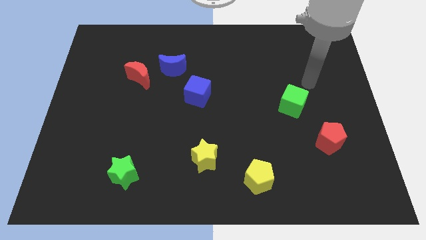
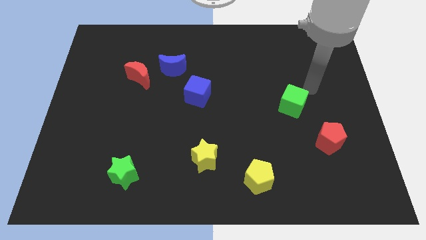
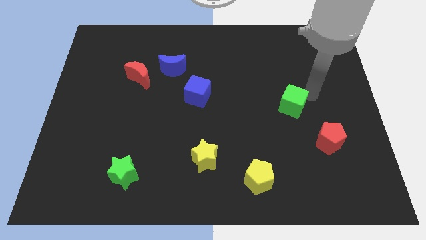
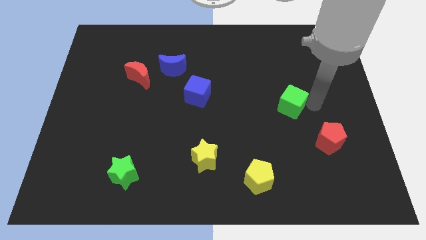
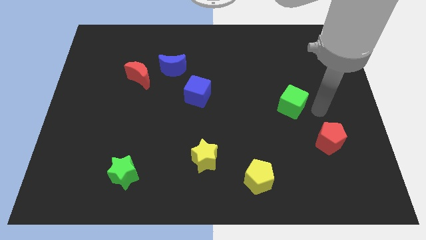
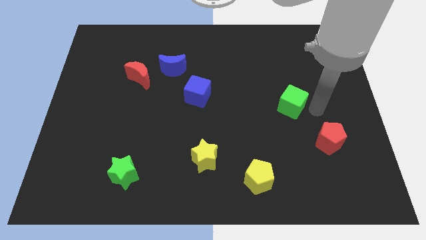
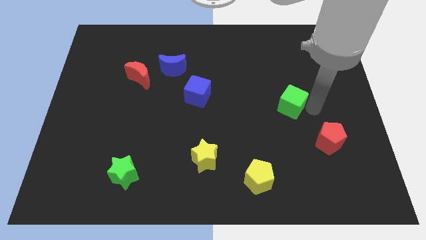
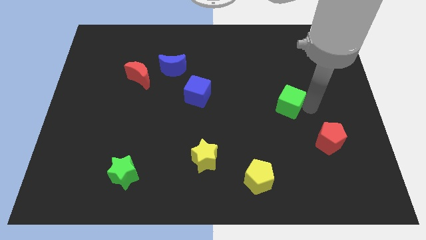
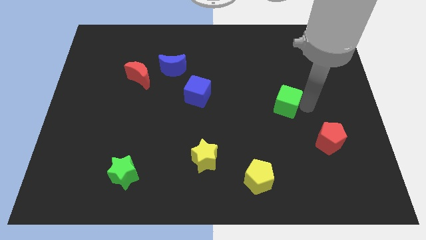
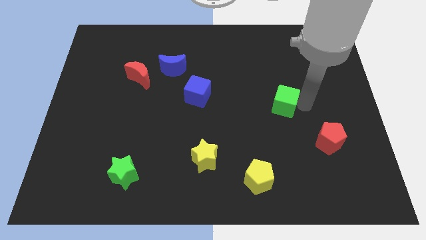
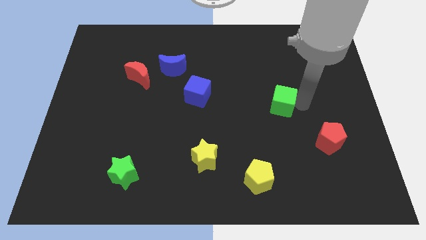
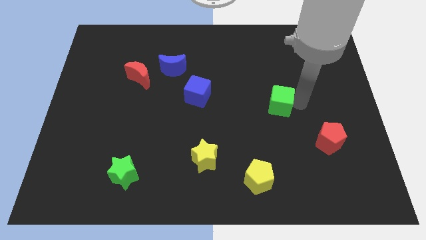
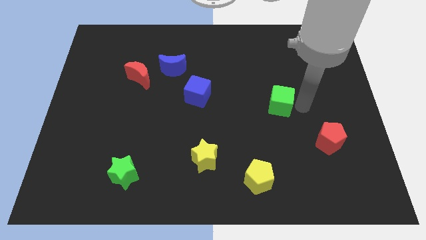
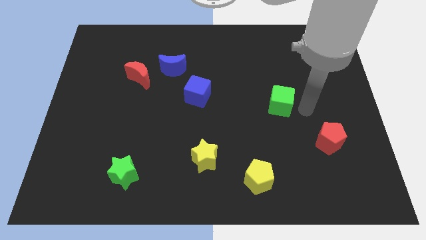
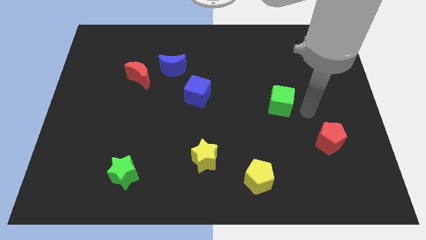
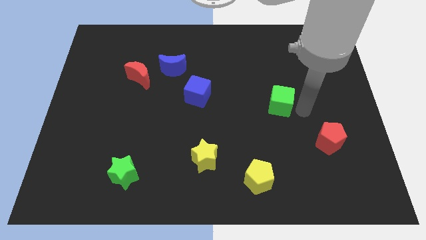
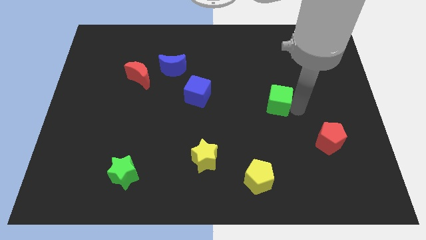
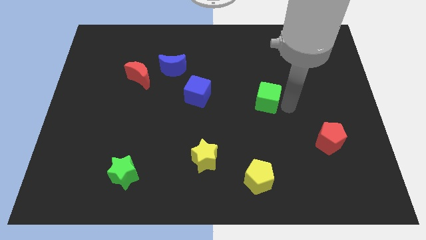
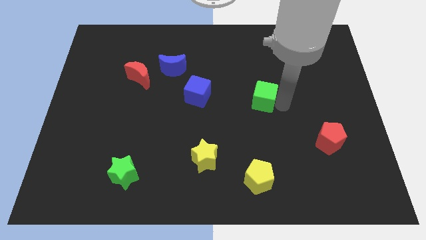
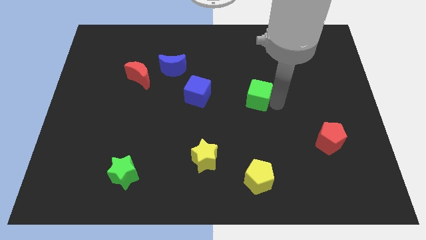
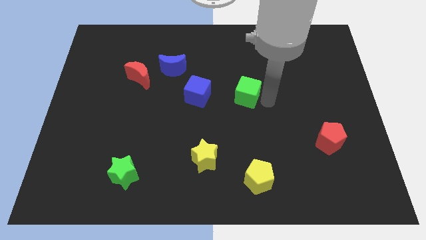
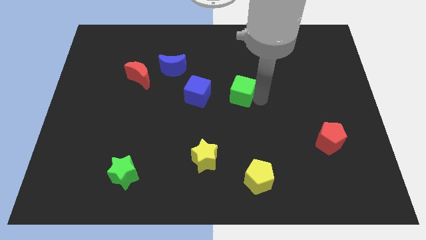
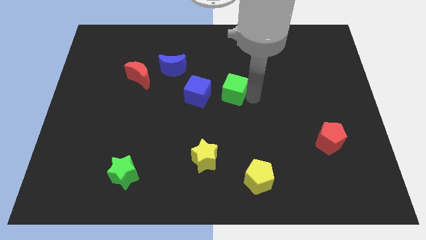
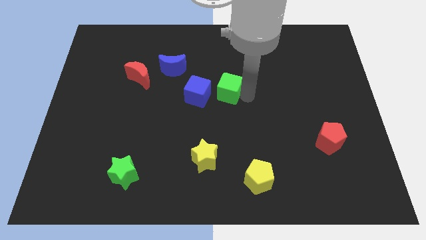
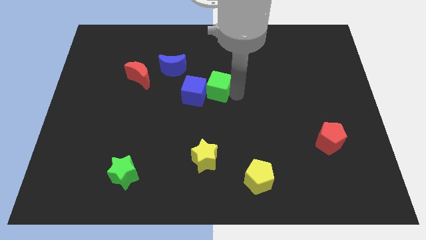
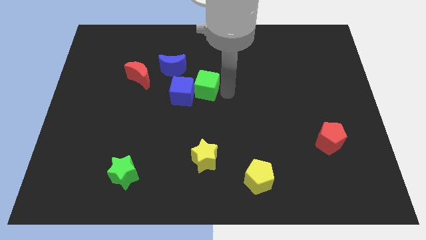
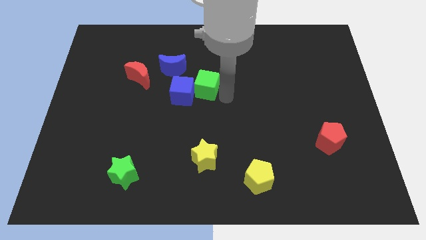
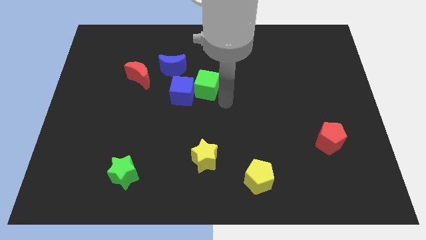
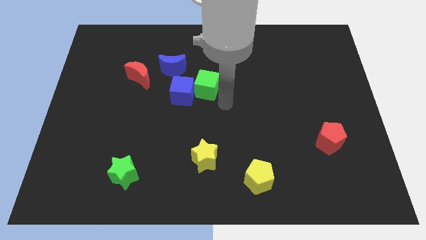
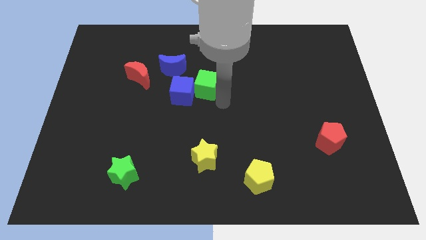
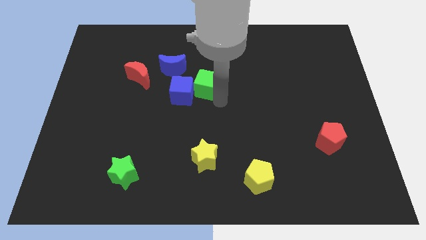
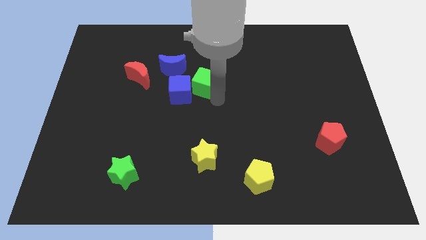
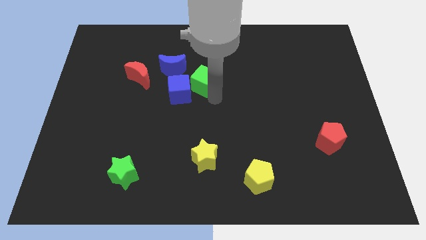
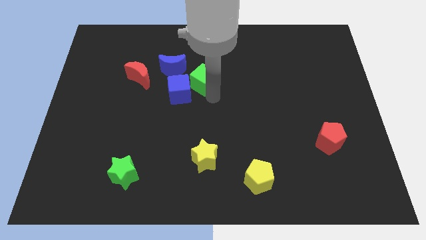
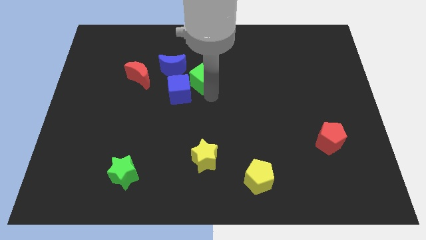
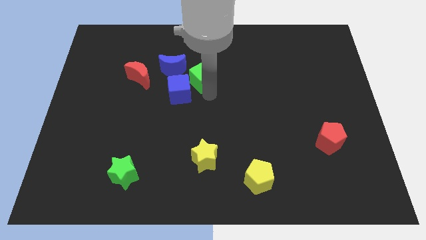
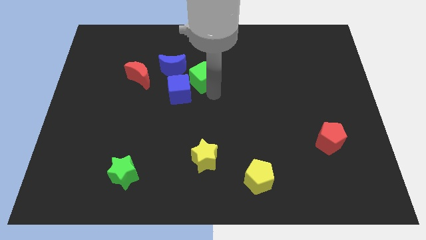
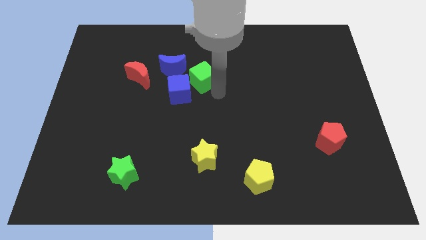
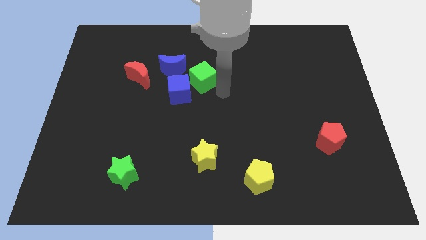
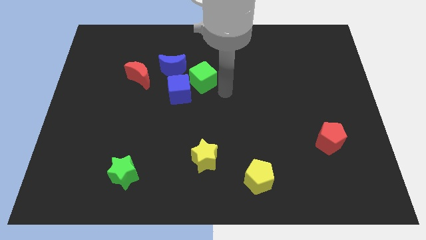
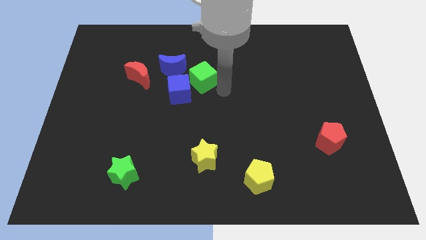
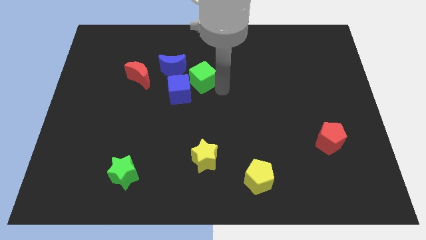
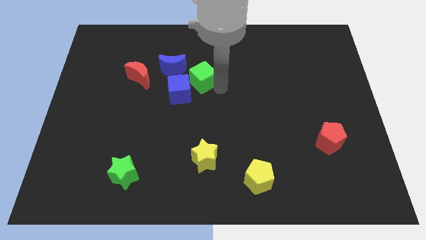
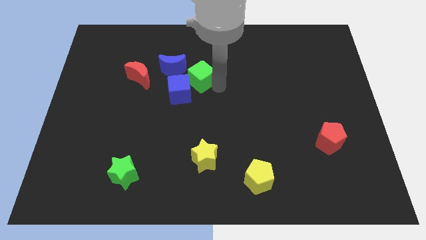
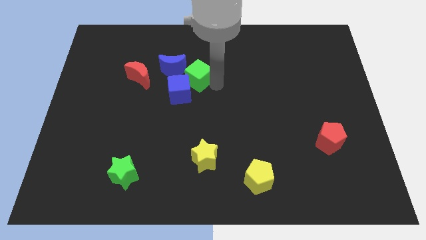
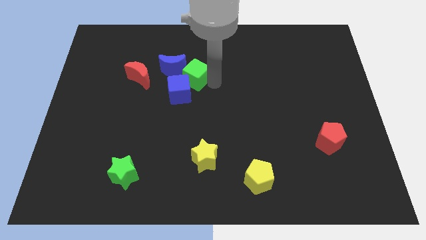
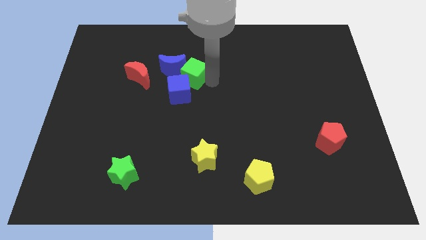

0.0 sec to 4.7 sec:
move the green cube next to the blue moon

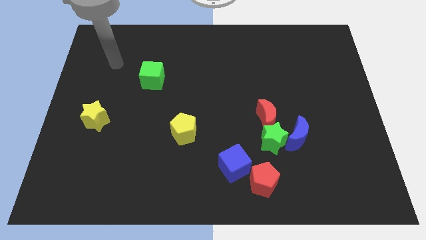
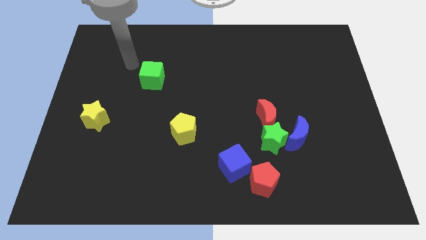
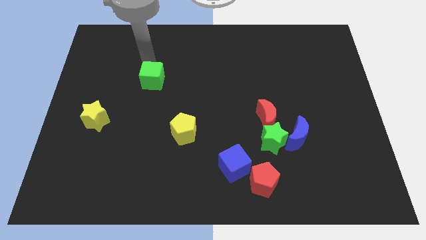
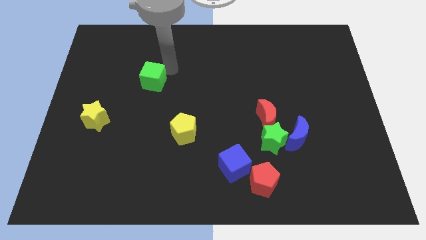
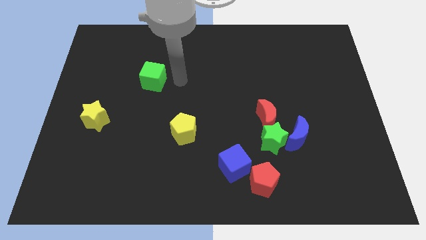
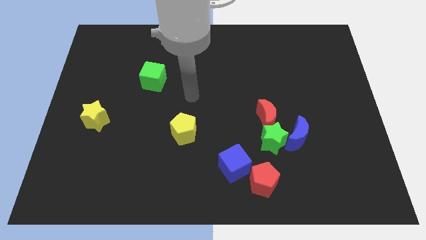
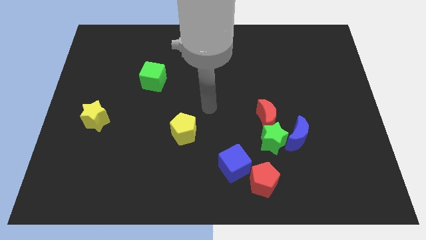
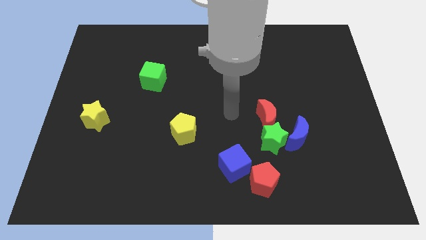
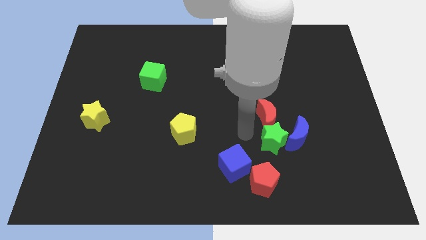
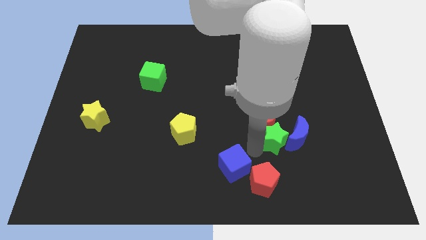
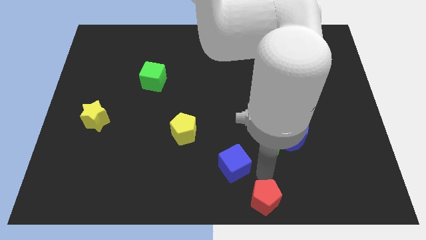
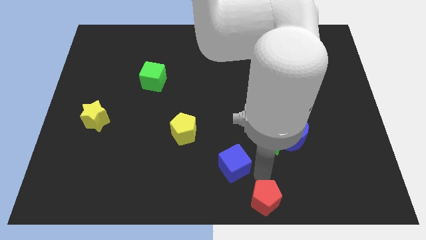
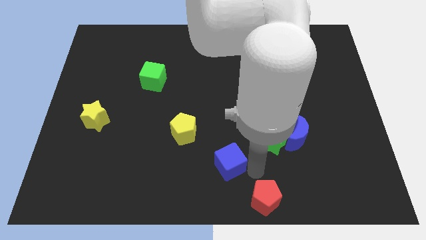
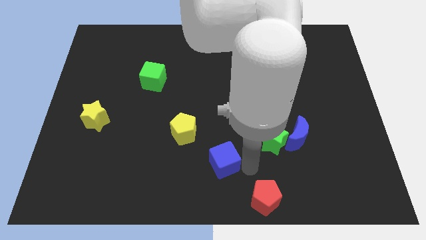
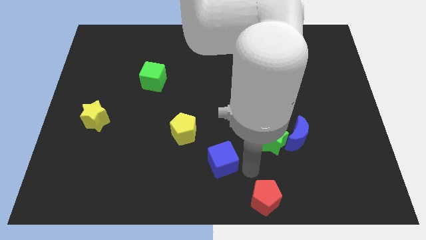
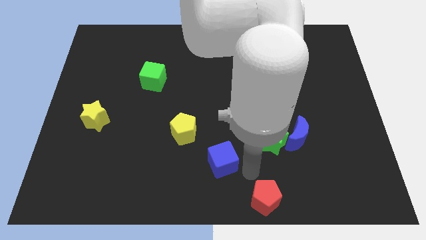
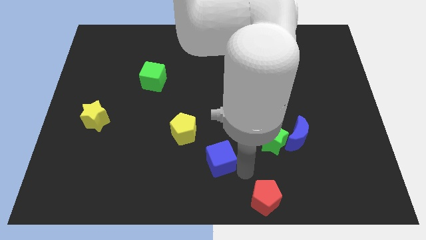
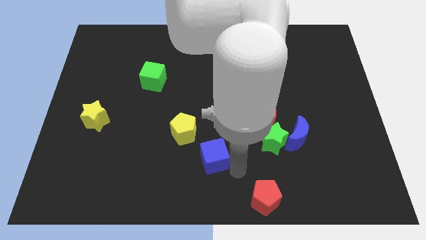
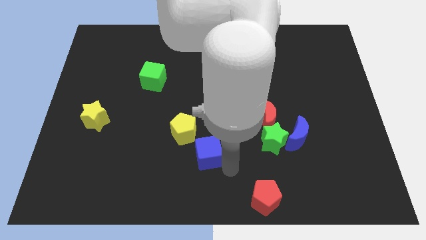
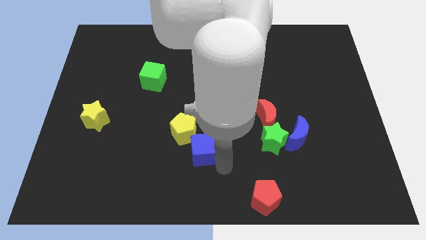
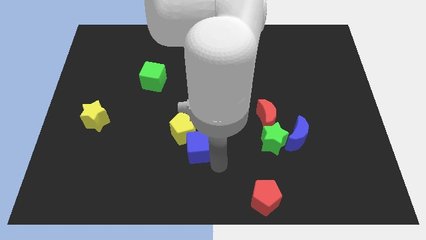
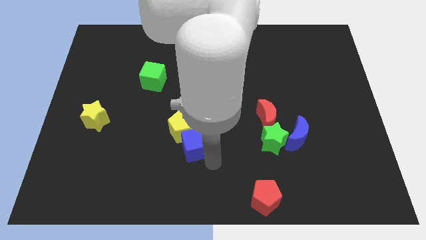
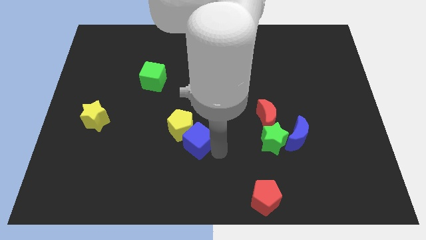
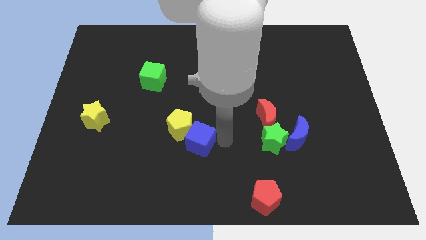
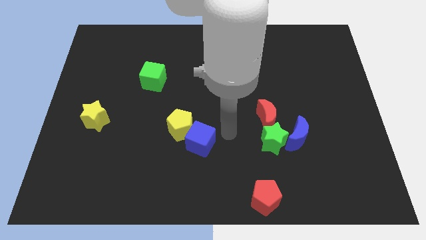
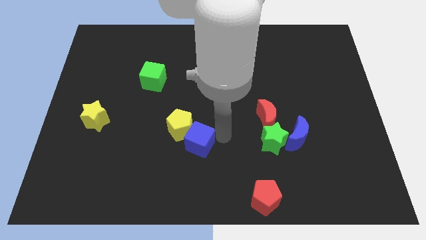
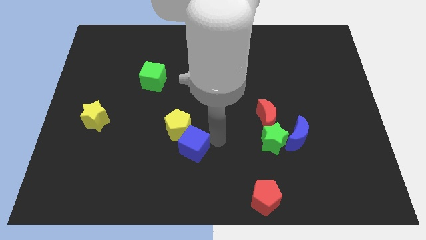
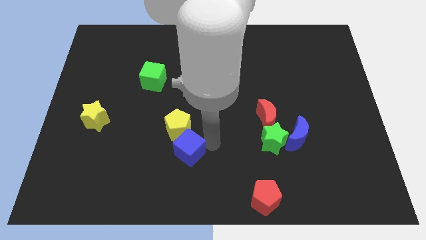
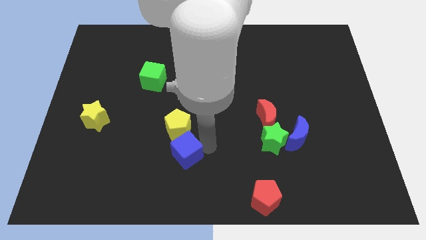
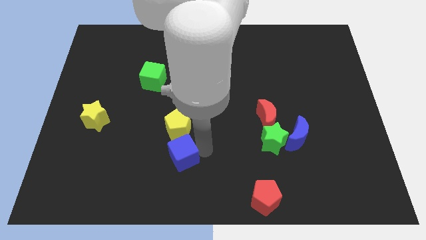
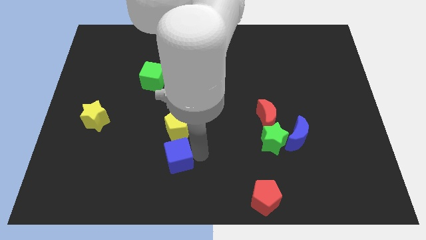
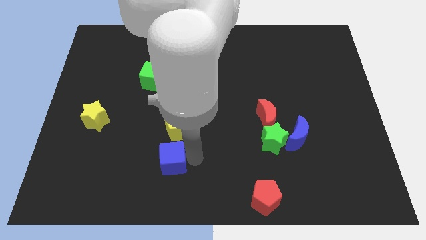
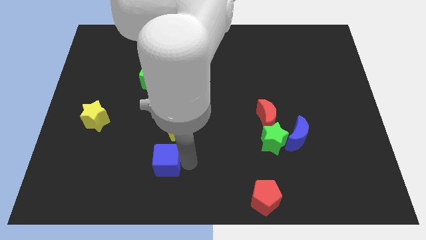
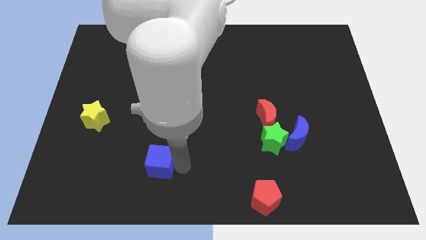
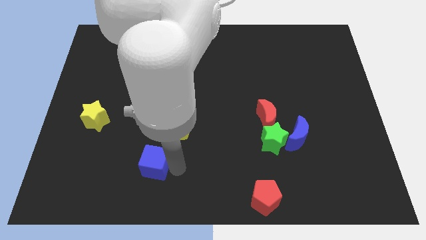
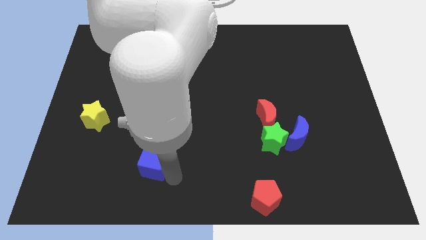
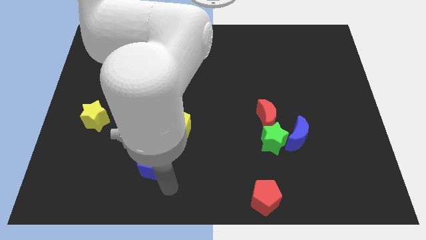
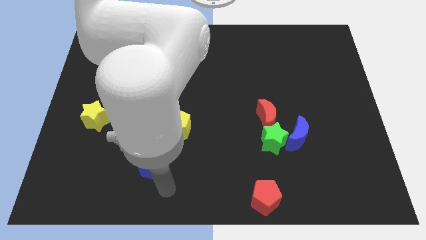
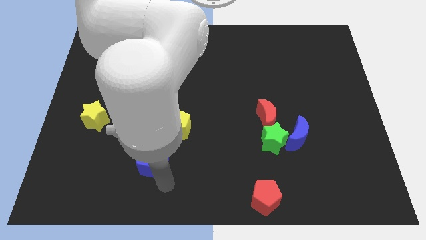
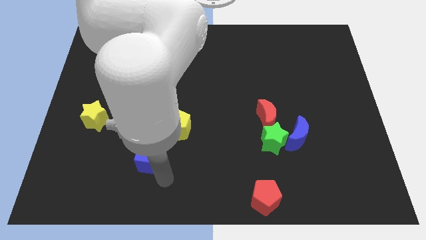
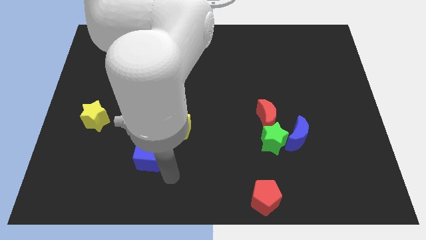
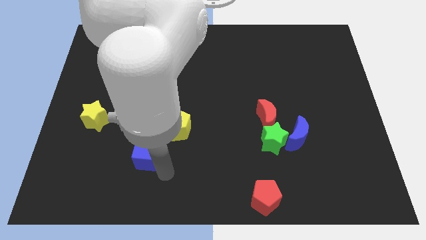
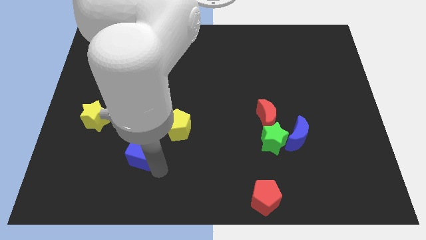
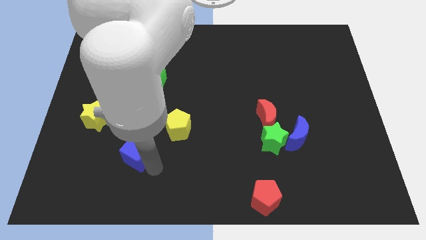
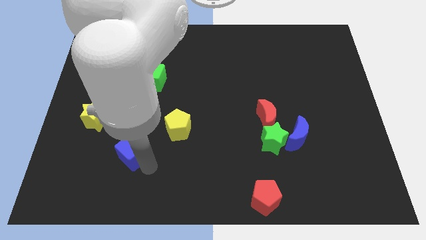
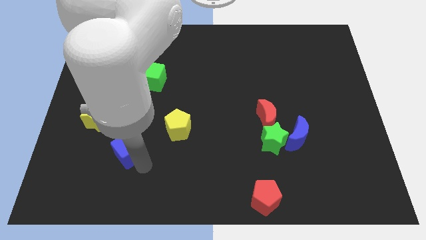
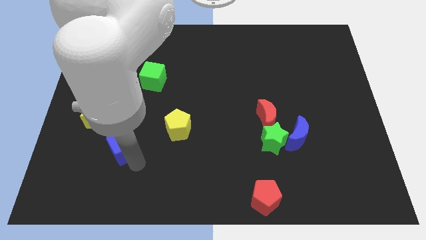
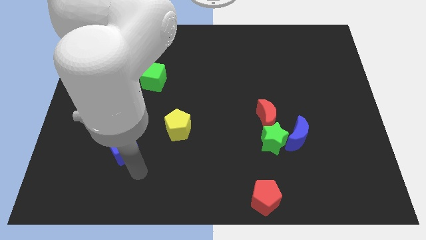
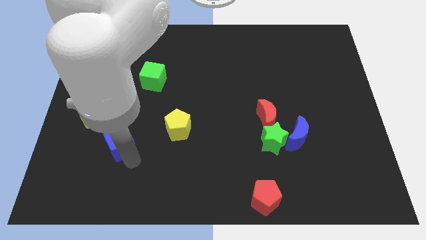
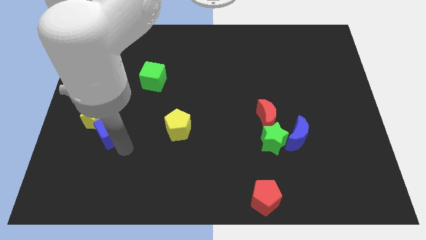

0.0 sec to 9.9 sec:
slide the blue cube towards the yellow star
